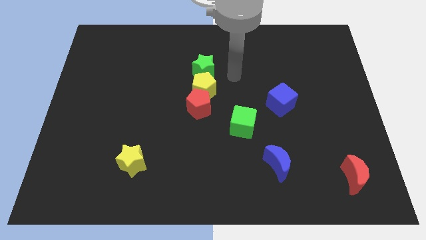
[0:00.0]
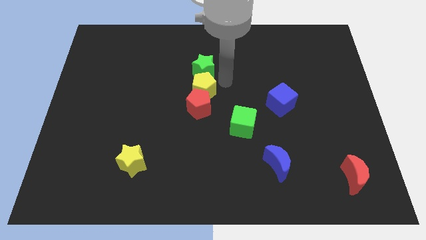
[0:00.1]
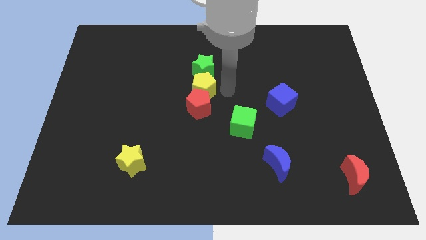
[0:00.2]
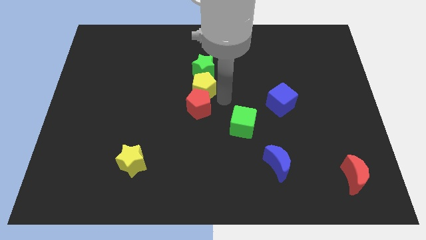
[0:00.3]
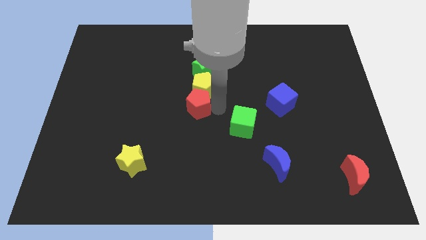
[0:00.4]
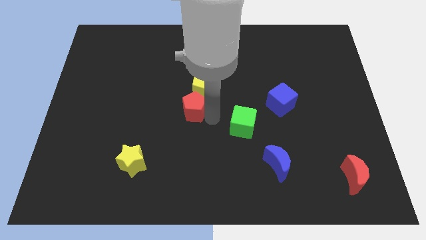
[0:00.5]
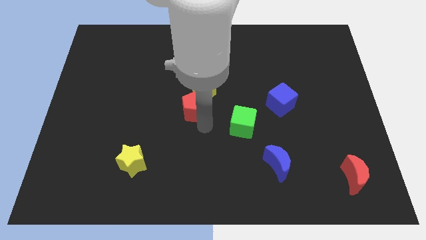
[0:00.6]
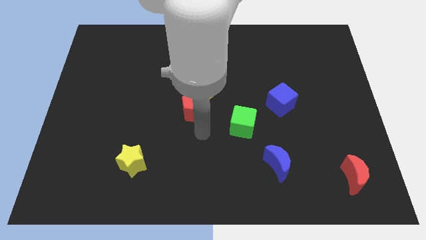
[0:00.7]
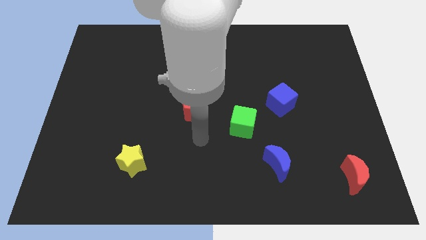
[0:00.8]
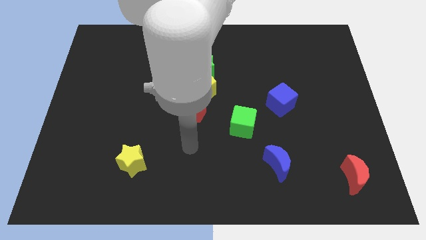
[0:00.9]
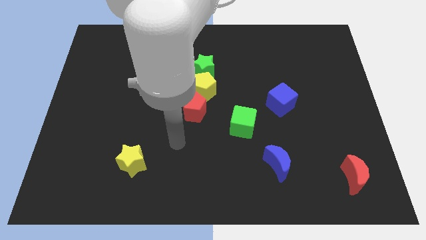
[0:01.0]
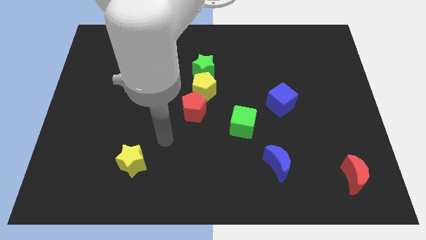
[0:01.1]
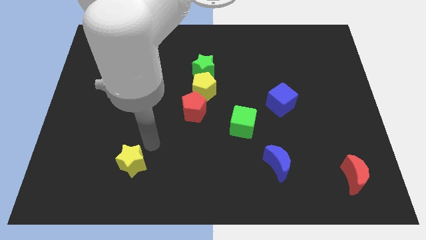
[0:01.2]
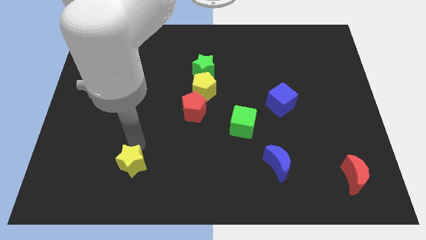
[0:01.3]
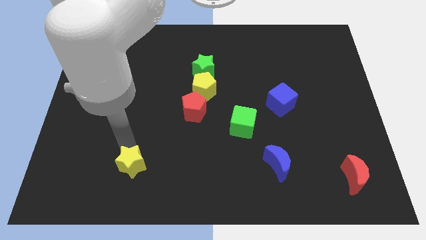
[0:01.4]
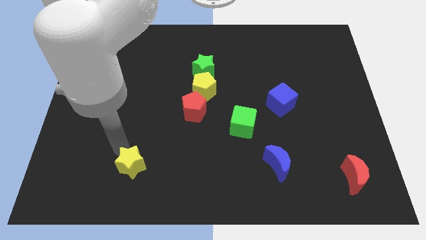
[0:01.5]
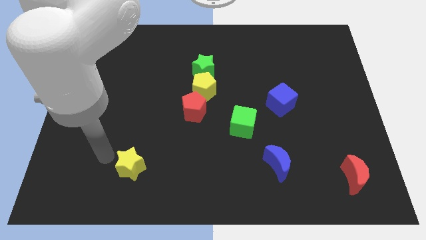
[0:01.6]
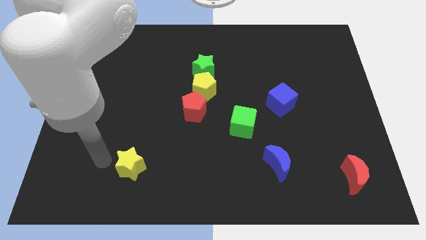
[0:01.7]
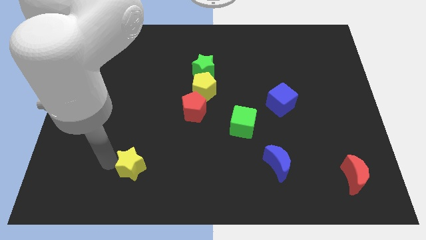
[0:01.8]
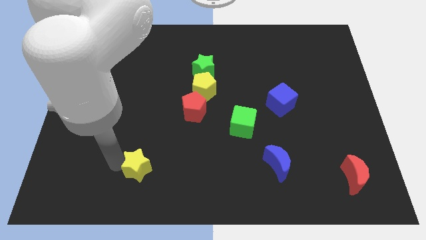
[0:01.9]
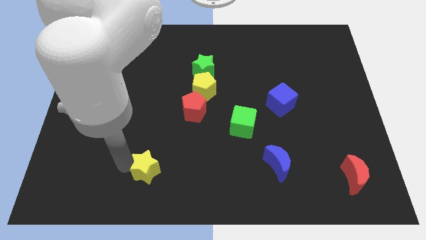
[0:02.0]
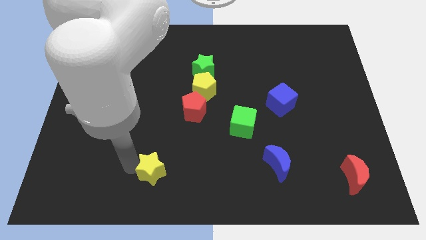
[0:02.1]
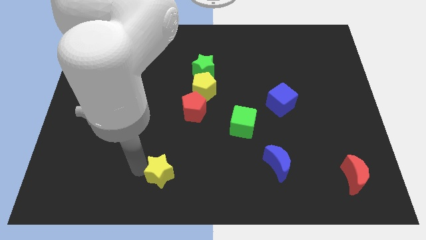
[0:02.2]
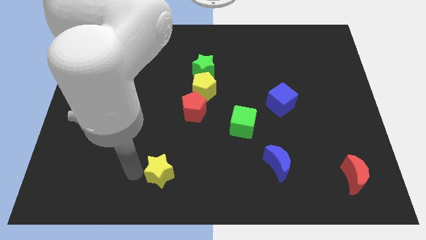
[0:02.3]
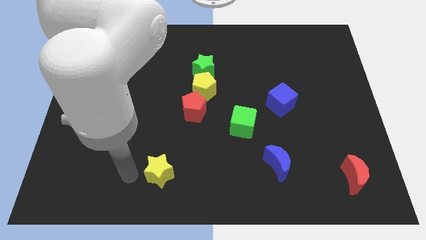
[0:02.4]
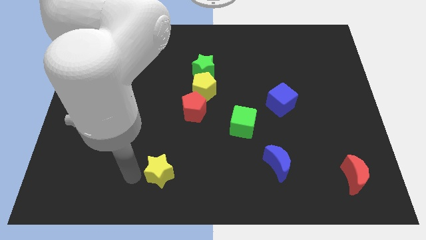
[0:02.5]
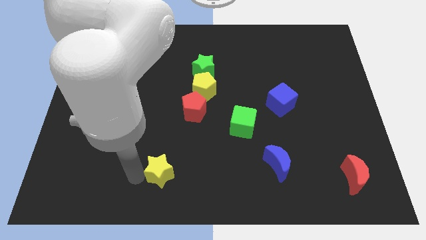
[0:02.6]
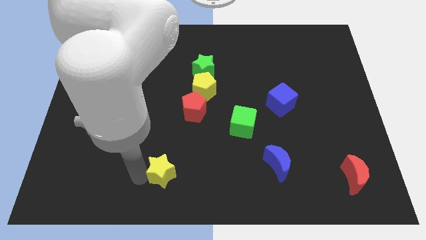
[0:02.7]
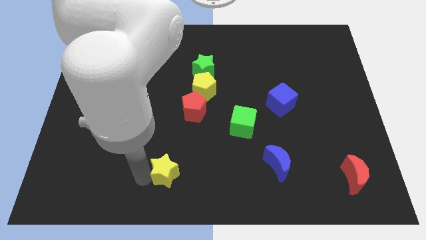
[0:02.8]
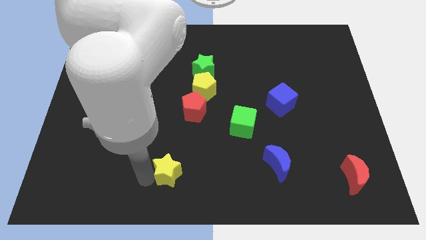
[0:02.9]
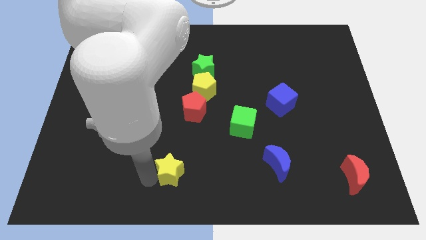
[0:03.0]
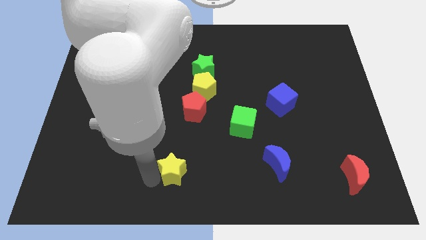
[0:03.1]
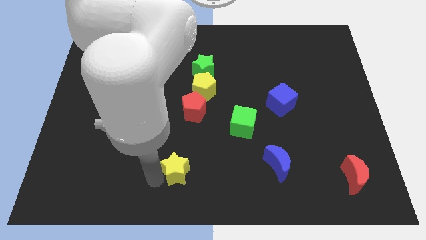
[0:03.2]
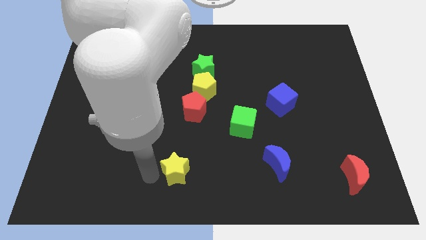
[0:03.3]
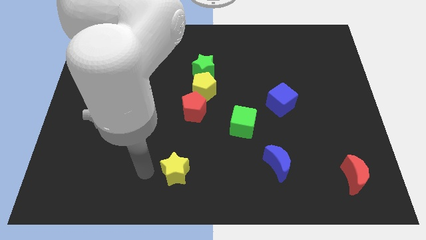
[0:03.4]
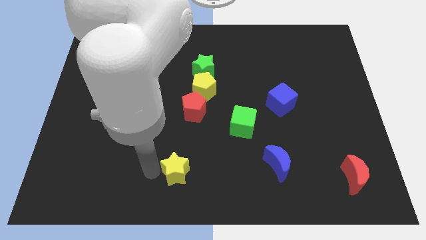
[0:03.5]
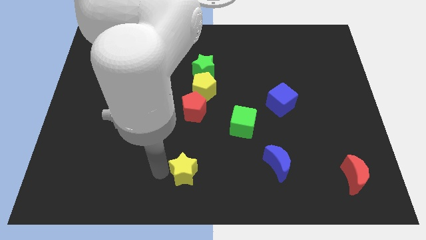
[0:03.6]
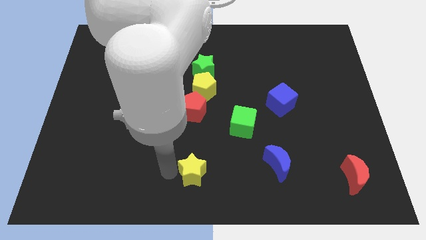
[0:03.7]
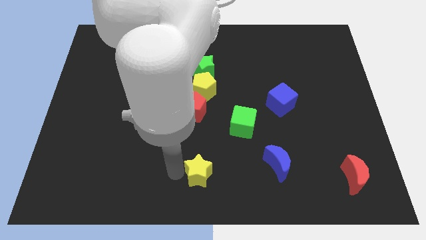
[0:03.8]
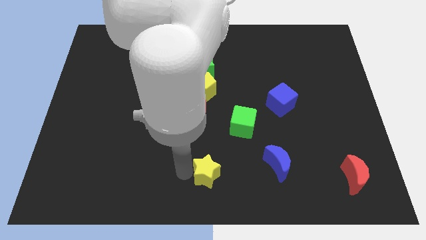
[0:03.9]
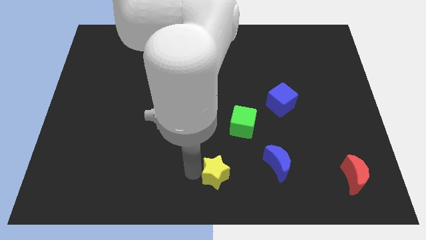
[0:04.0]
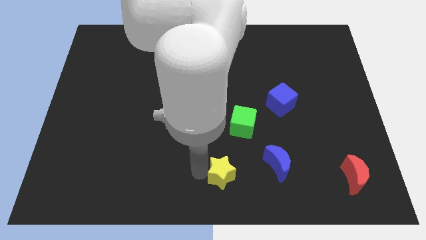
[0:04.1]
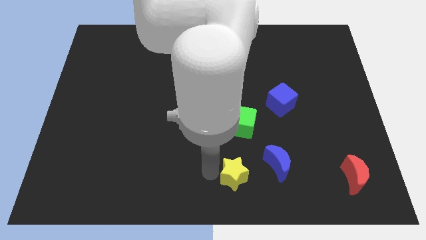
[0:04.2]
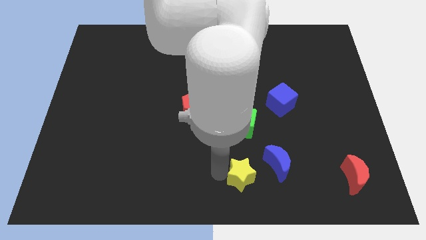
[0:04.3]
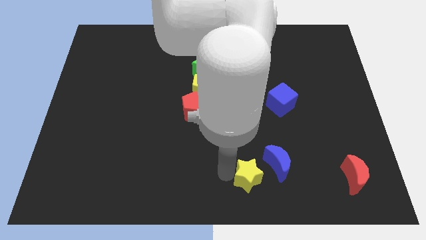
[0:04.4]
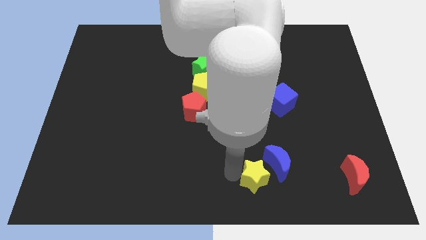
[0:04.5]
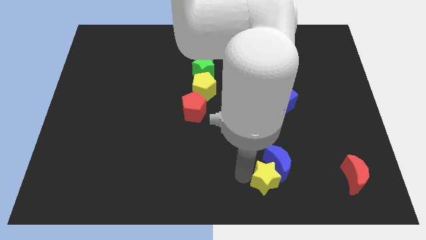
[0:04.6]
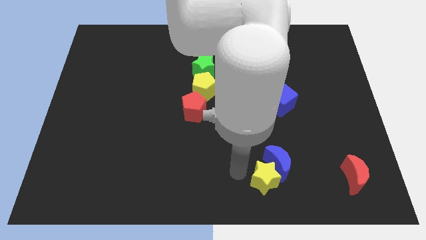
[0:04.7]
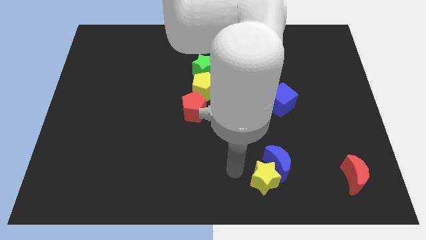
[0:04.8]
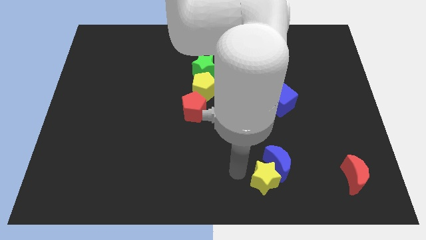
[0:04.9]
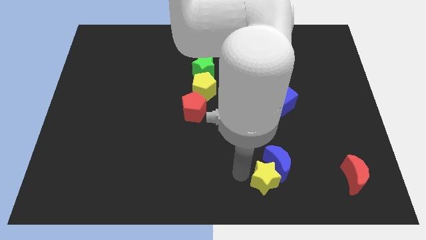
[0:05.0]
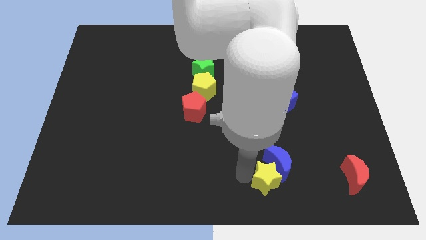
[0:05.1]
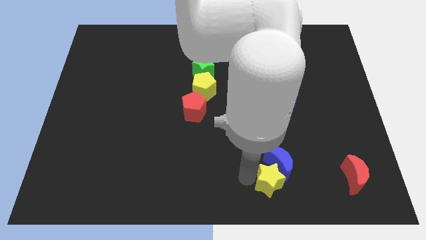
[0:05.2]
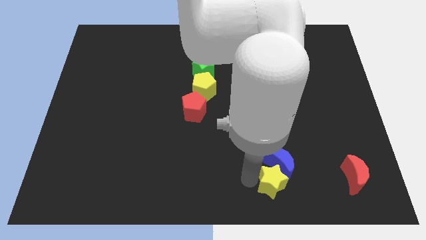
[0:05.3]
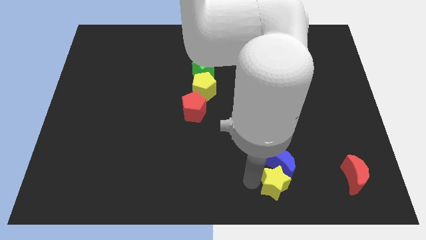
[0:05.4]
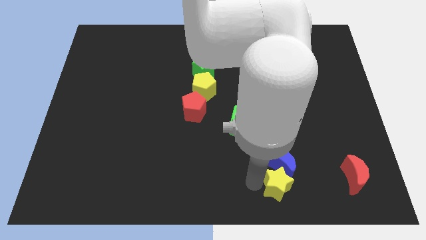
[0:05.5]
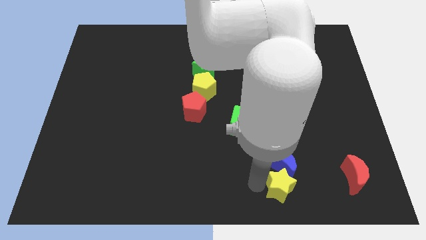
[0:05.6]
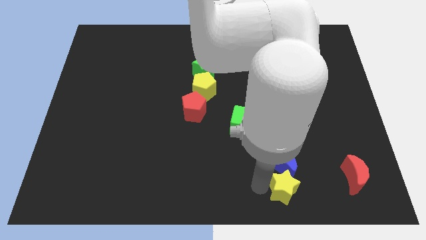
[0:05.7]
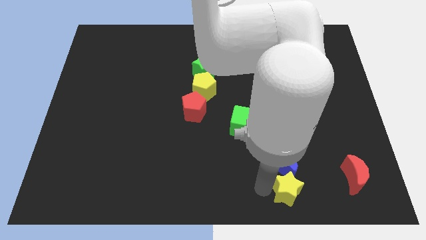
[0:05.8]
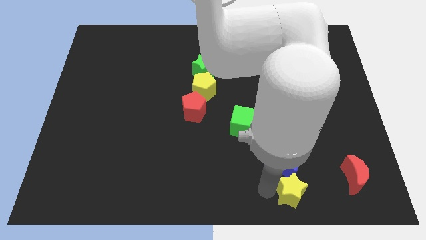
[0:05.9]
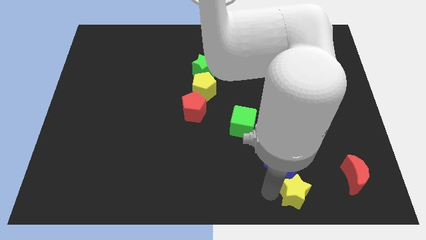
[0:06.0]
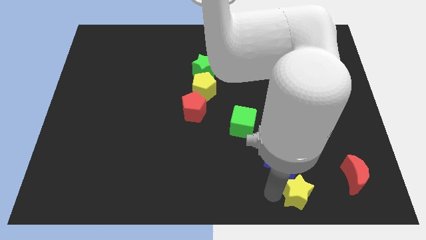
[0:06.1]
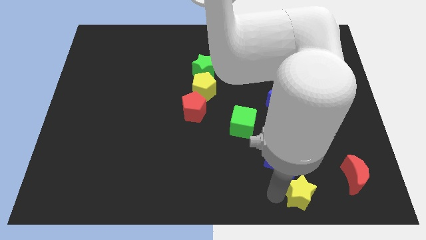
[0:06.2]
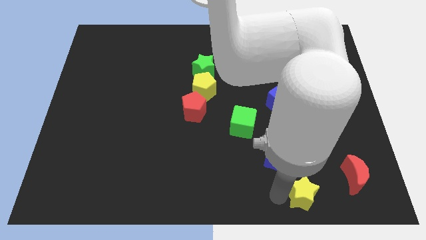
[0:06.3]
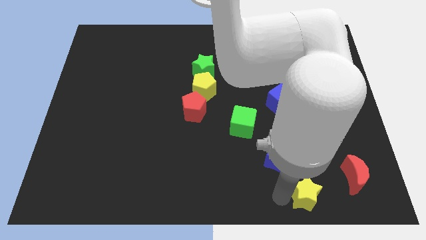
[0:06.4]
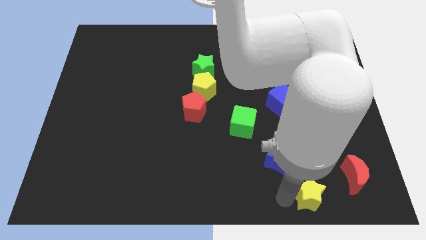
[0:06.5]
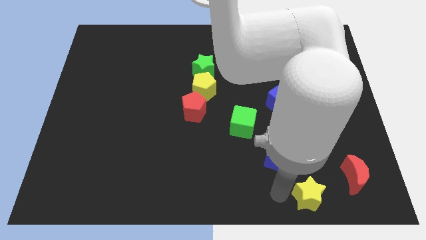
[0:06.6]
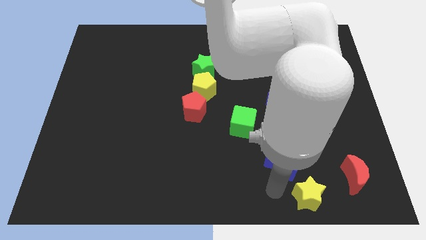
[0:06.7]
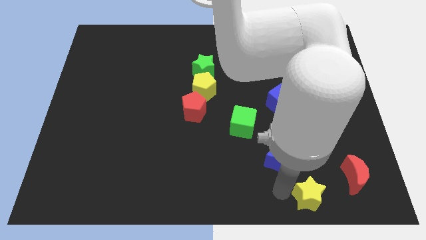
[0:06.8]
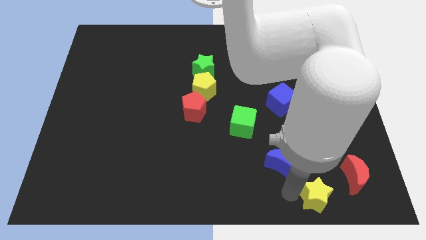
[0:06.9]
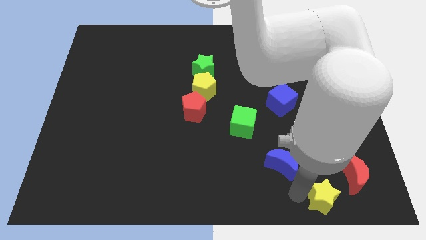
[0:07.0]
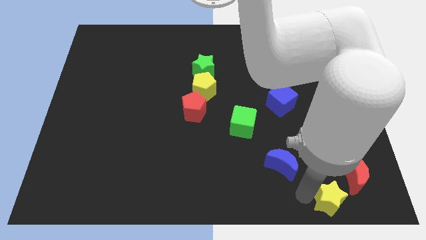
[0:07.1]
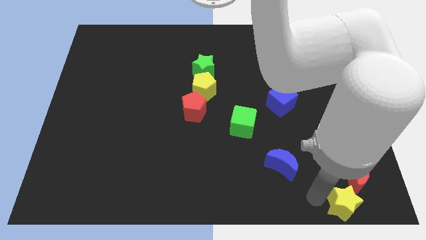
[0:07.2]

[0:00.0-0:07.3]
move the yellow star to the lower right corner
